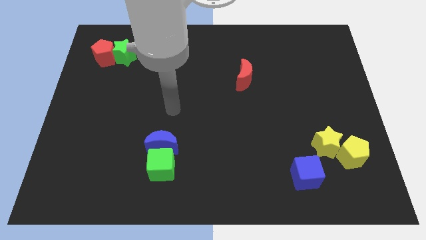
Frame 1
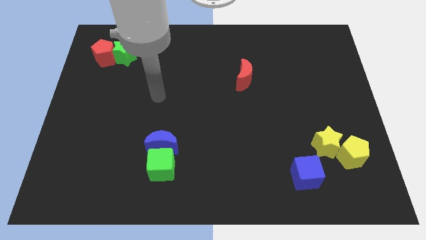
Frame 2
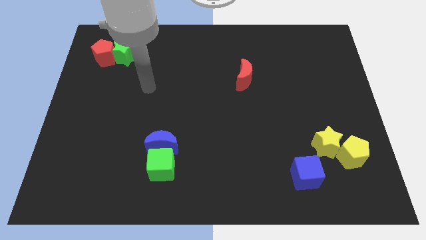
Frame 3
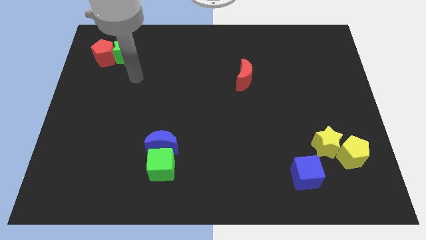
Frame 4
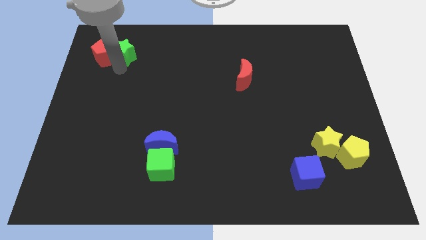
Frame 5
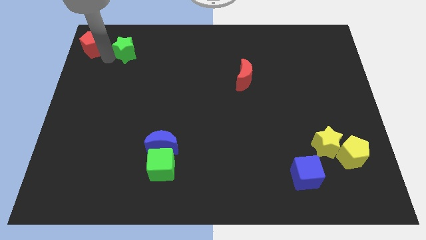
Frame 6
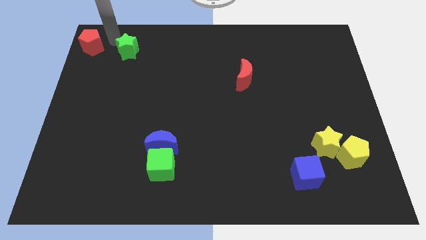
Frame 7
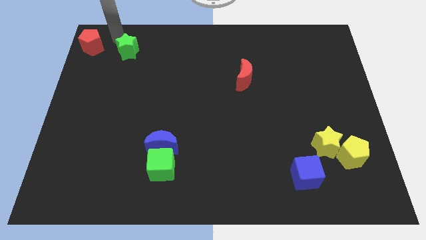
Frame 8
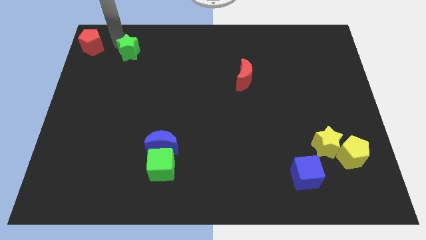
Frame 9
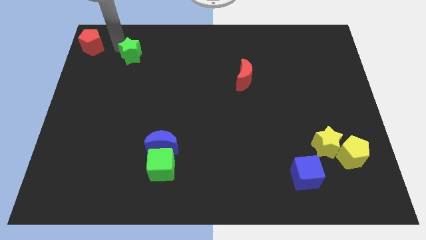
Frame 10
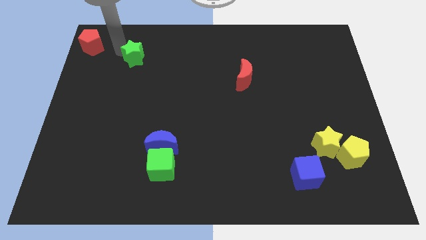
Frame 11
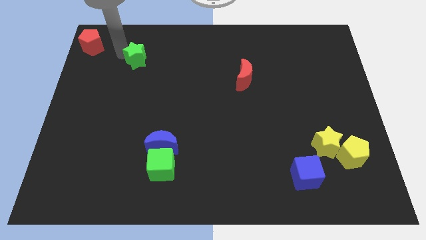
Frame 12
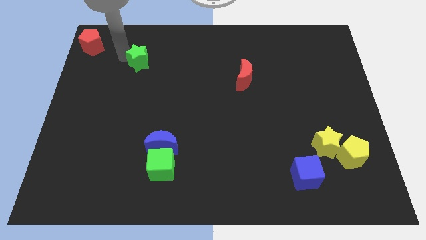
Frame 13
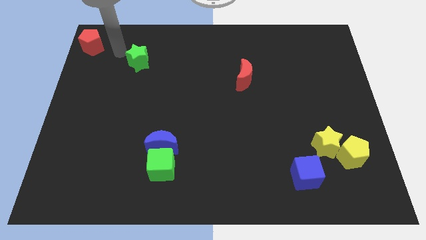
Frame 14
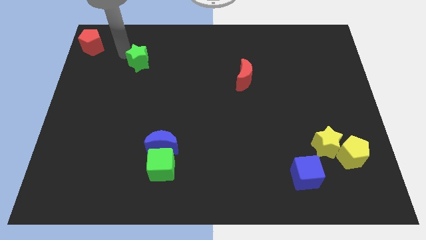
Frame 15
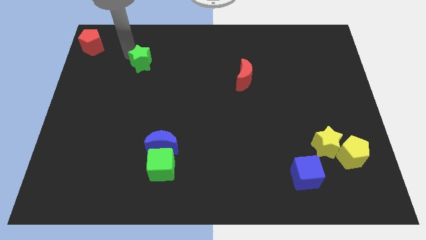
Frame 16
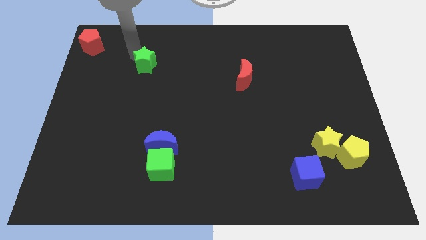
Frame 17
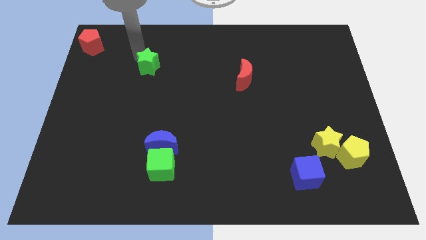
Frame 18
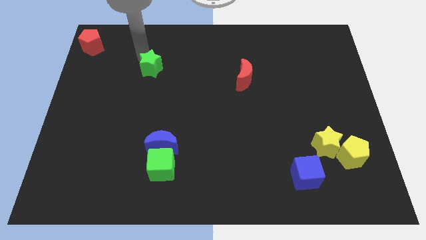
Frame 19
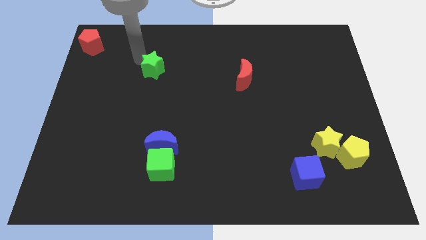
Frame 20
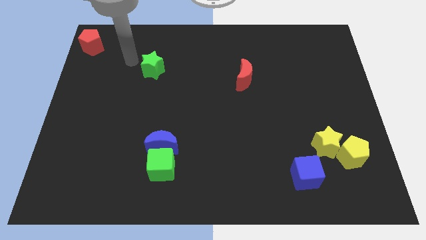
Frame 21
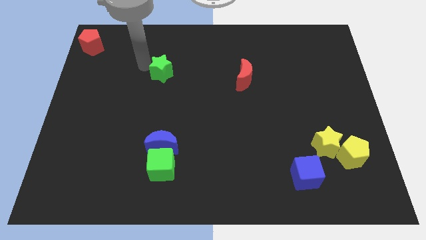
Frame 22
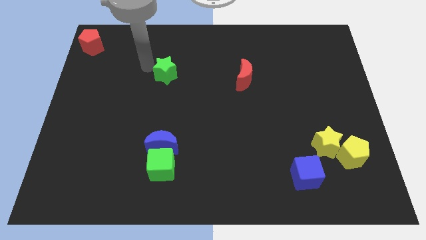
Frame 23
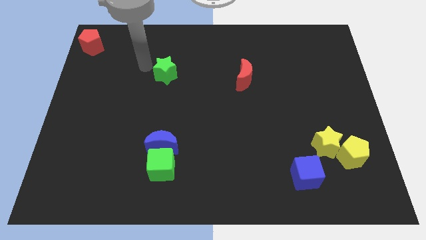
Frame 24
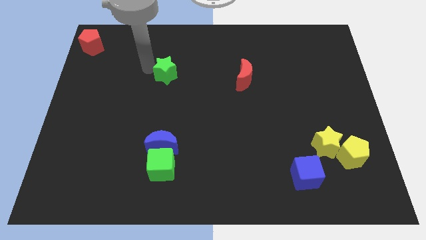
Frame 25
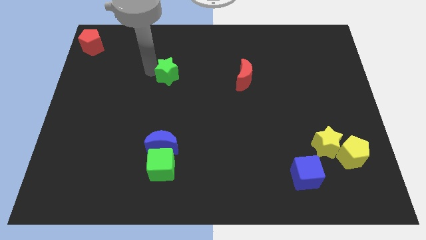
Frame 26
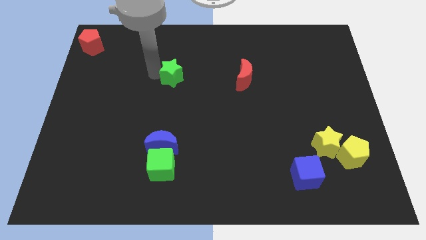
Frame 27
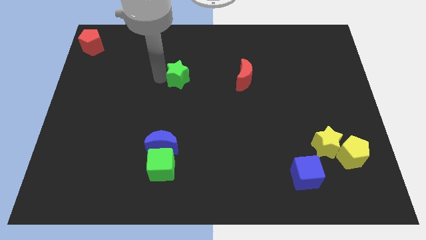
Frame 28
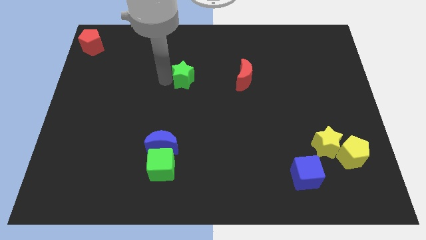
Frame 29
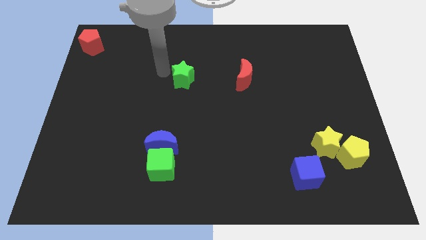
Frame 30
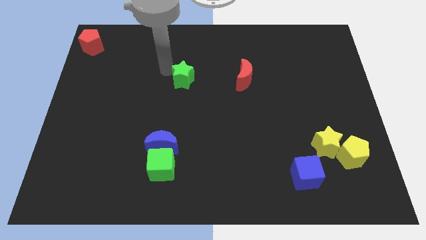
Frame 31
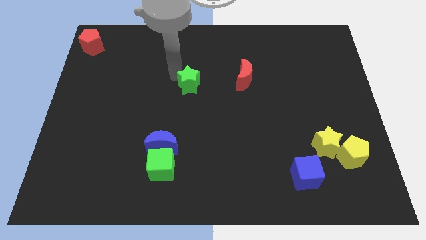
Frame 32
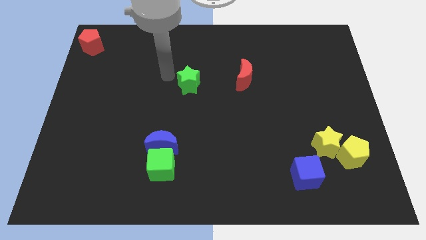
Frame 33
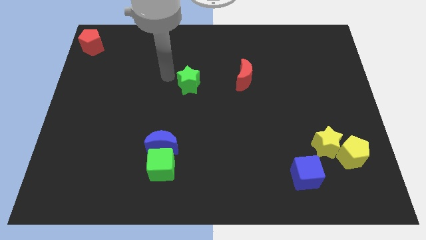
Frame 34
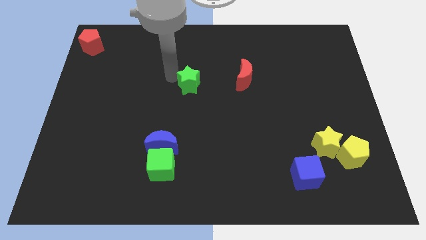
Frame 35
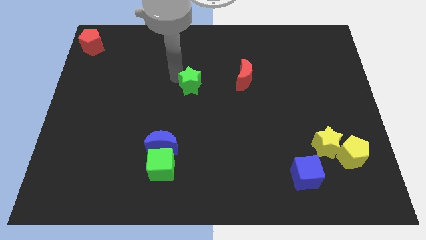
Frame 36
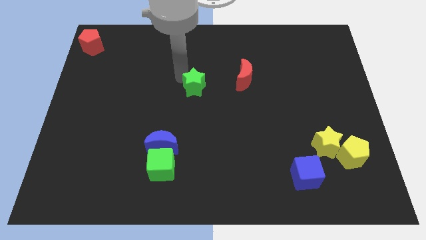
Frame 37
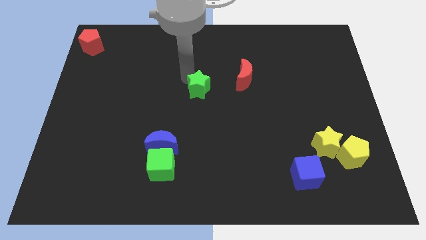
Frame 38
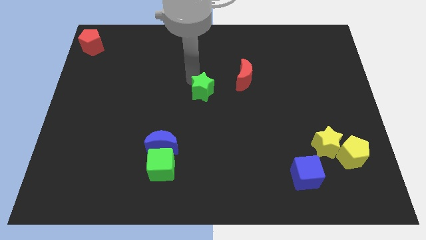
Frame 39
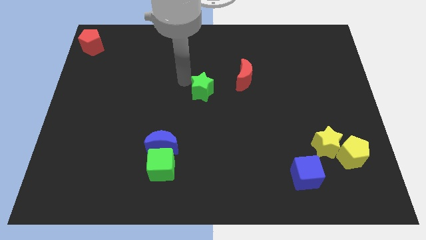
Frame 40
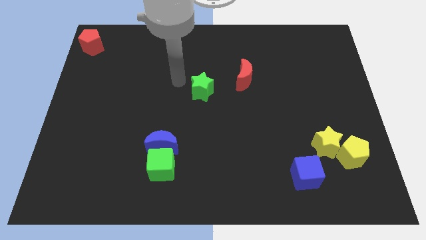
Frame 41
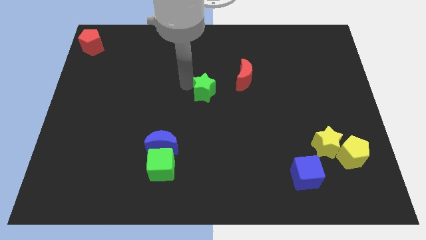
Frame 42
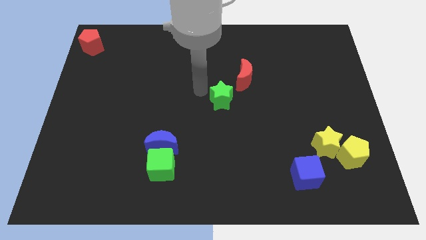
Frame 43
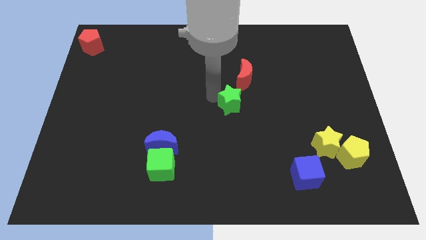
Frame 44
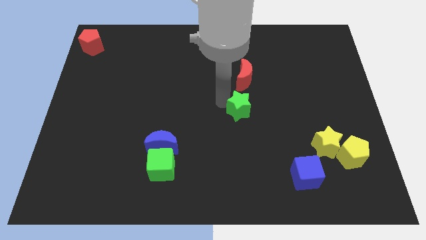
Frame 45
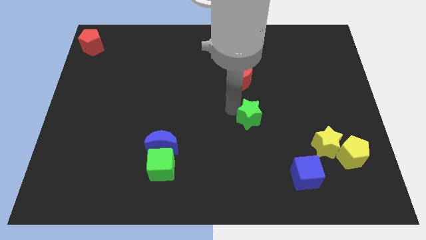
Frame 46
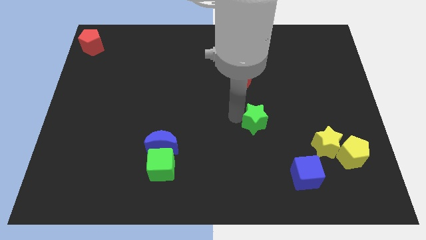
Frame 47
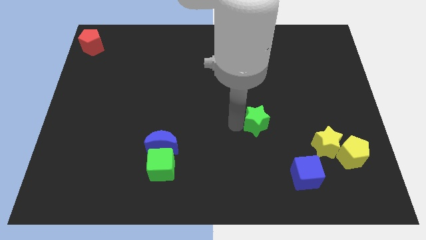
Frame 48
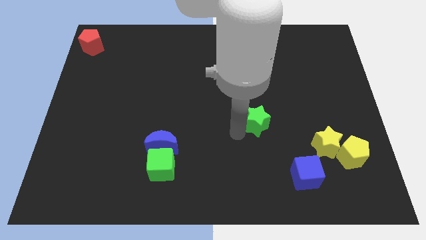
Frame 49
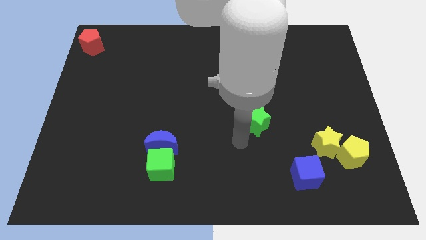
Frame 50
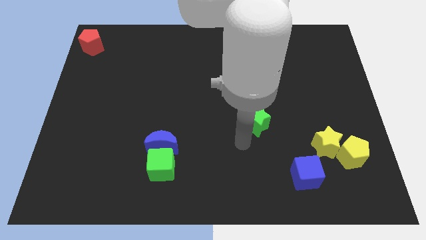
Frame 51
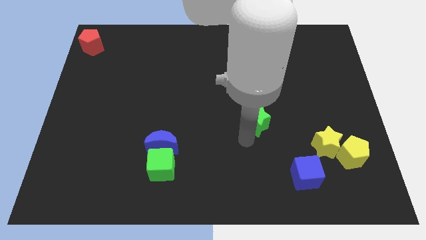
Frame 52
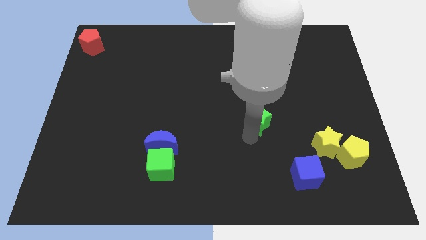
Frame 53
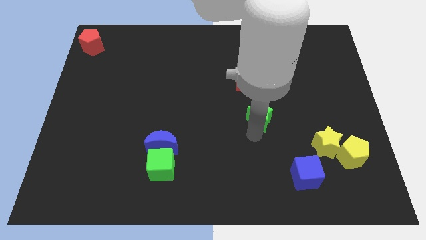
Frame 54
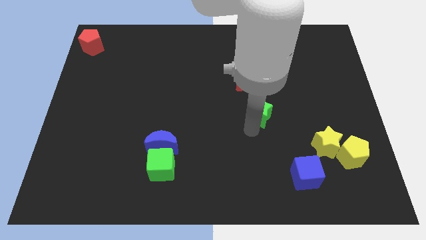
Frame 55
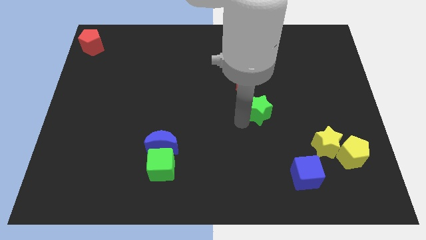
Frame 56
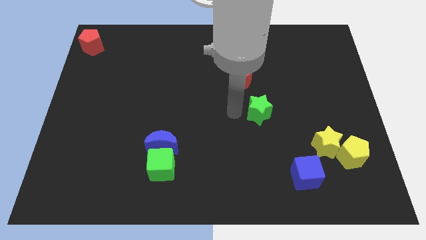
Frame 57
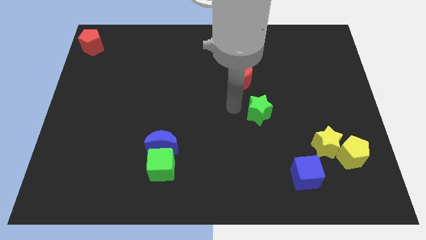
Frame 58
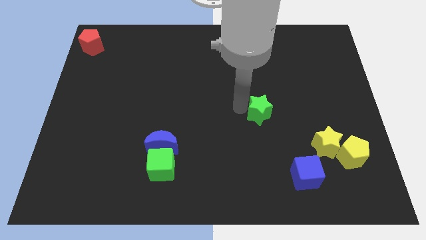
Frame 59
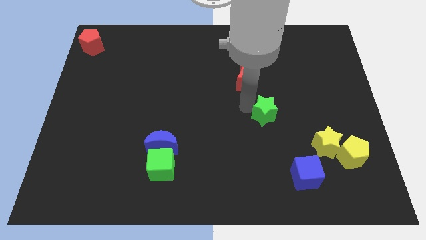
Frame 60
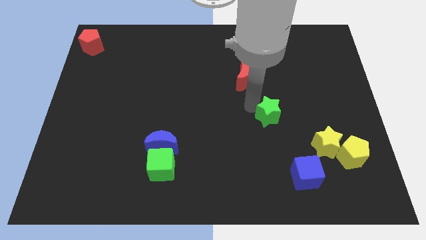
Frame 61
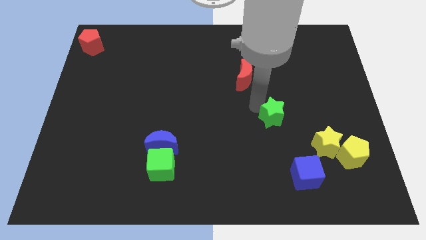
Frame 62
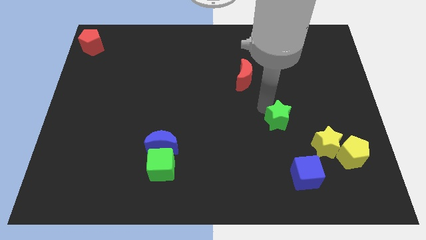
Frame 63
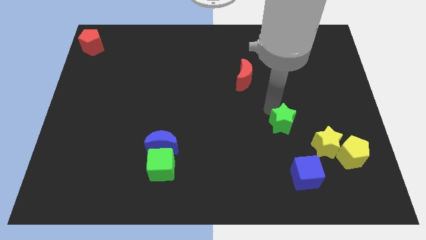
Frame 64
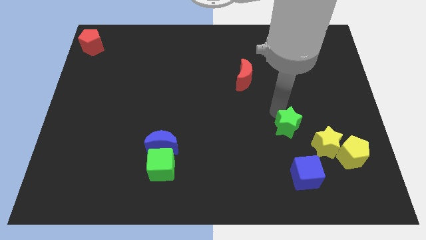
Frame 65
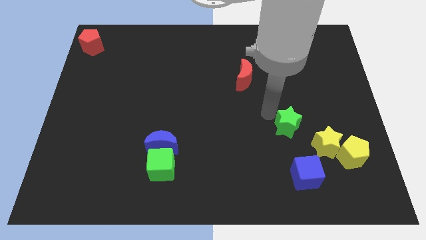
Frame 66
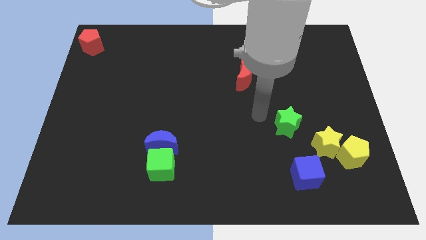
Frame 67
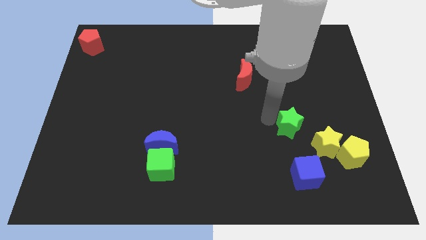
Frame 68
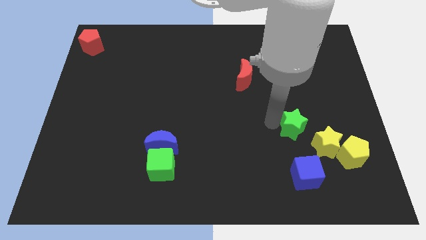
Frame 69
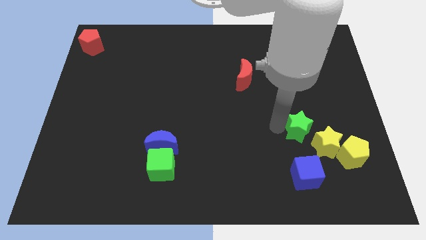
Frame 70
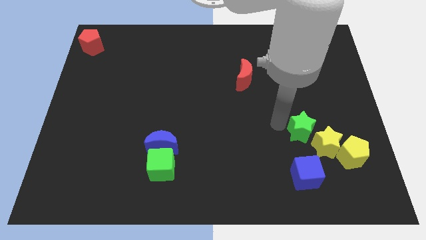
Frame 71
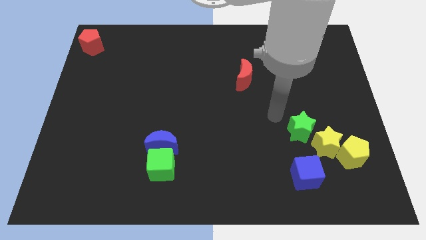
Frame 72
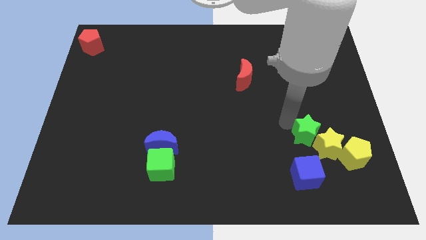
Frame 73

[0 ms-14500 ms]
put the green star close to the yellow star
